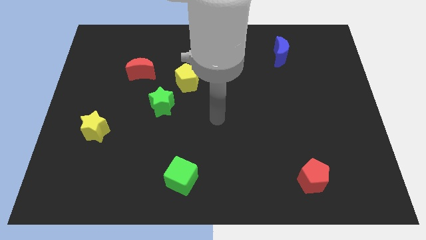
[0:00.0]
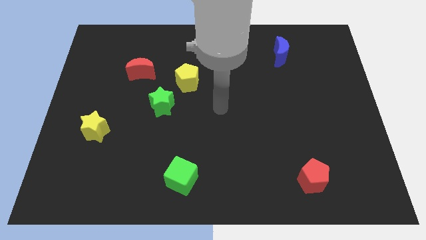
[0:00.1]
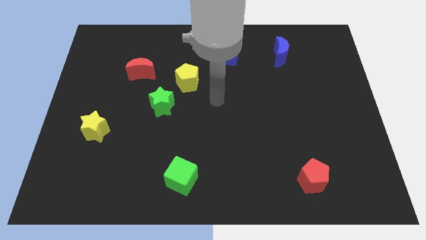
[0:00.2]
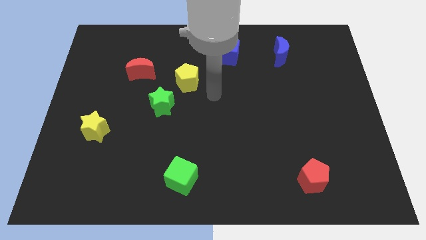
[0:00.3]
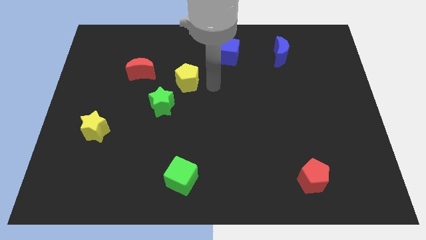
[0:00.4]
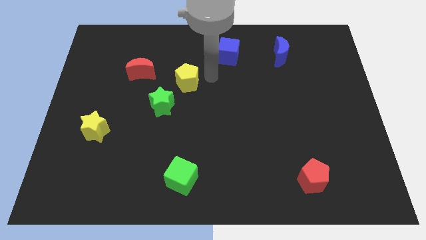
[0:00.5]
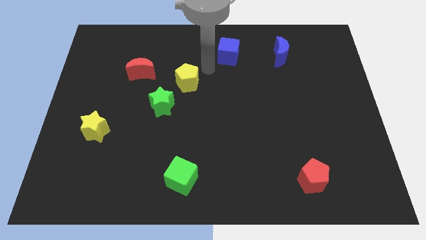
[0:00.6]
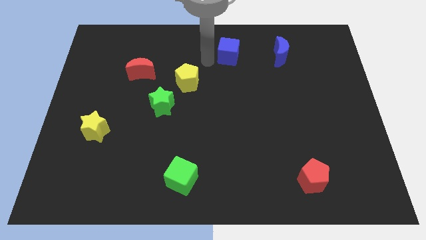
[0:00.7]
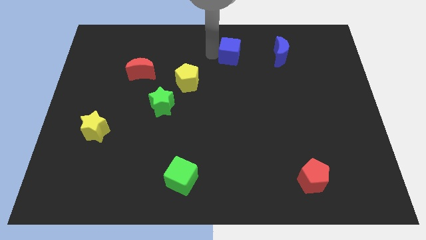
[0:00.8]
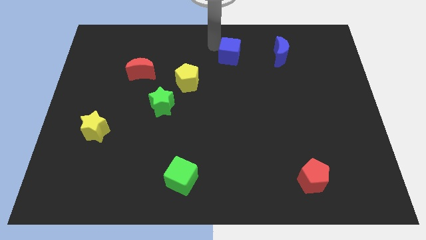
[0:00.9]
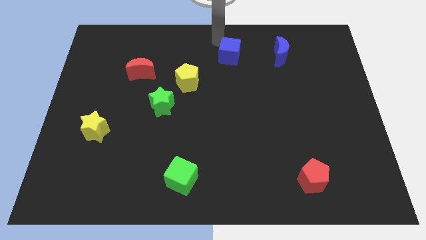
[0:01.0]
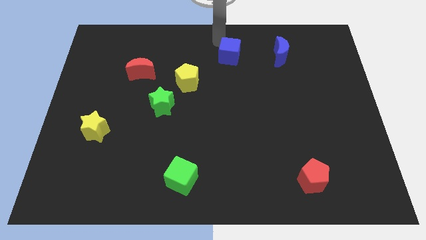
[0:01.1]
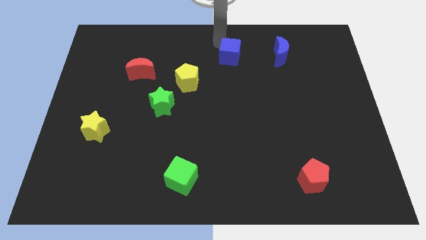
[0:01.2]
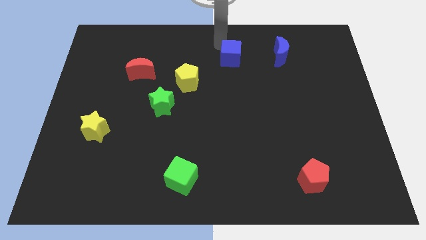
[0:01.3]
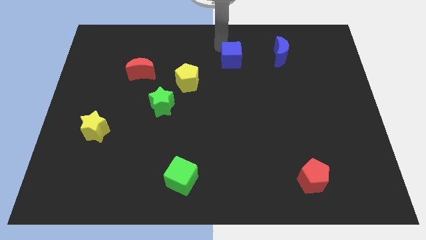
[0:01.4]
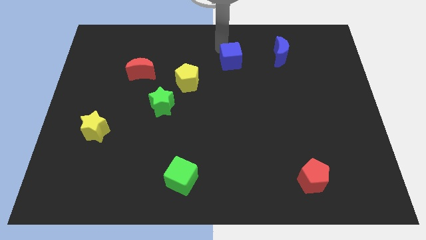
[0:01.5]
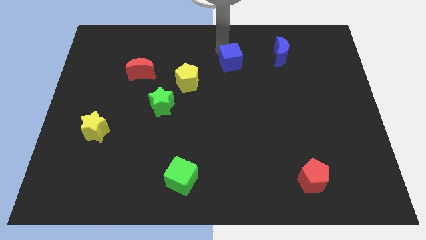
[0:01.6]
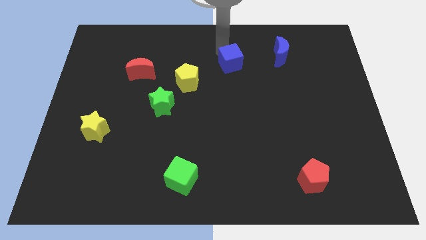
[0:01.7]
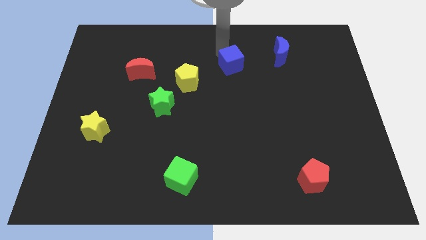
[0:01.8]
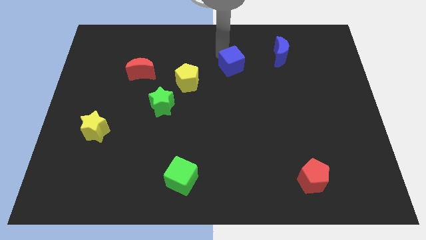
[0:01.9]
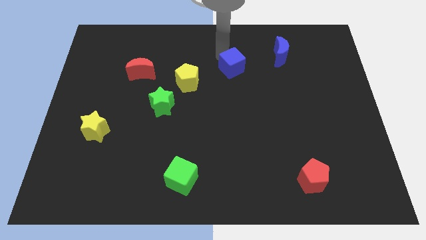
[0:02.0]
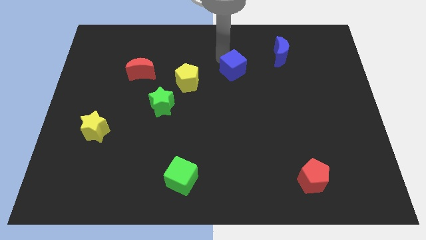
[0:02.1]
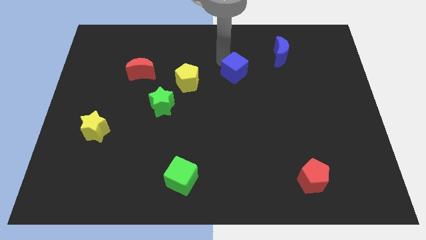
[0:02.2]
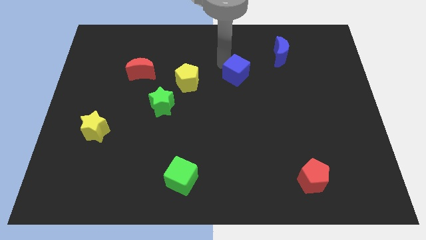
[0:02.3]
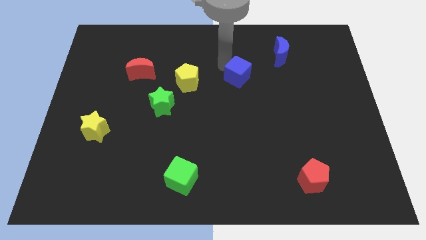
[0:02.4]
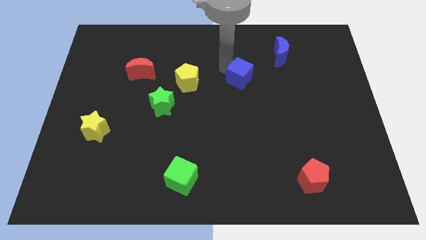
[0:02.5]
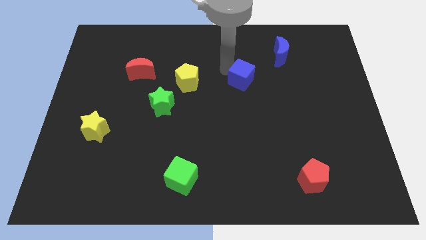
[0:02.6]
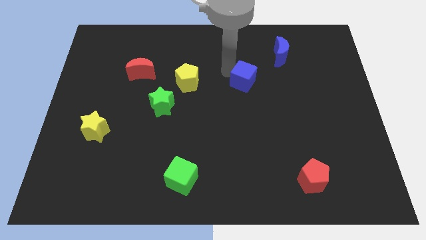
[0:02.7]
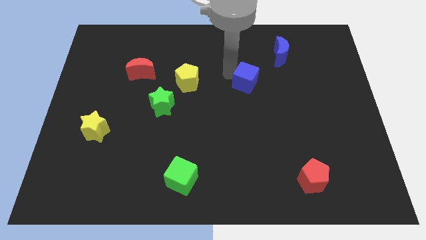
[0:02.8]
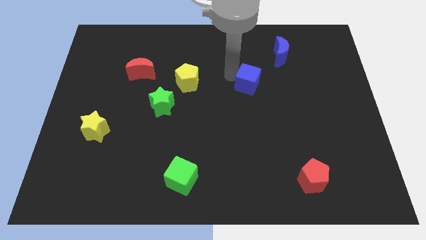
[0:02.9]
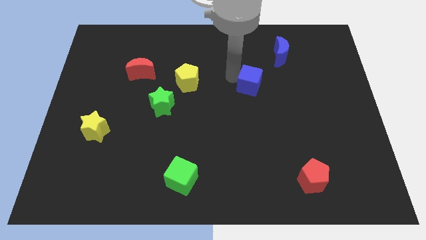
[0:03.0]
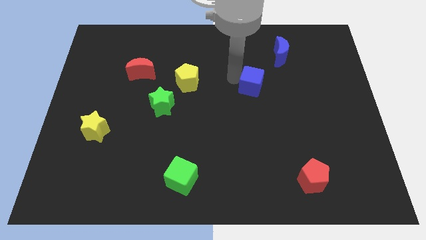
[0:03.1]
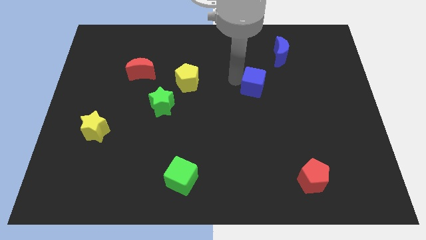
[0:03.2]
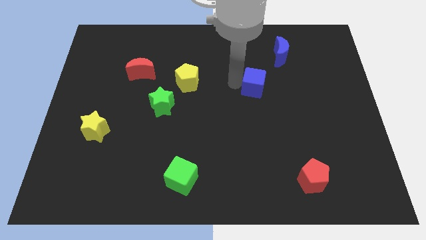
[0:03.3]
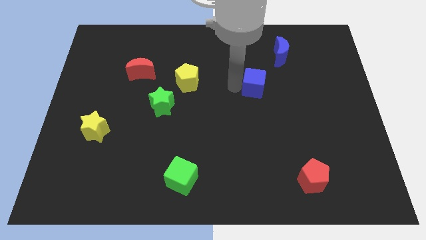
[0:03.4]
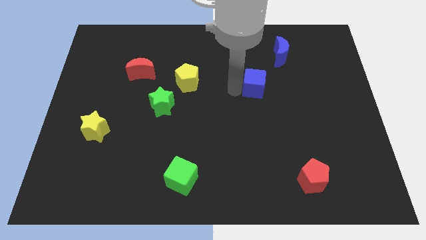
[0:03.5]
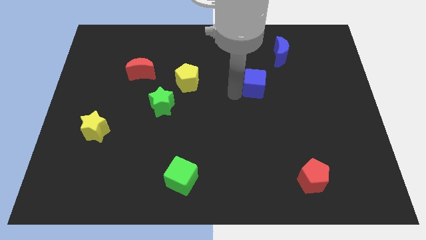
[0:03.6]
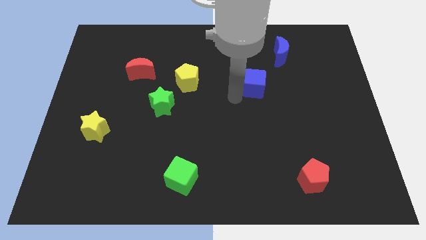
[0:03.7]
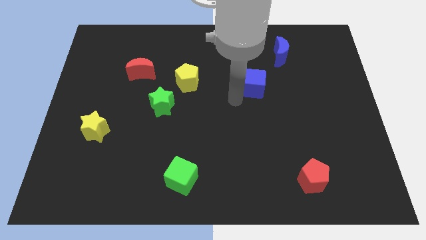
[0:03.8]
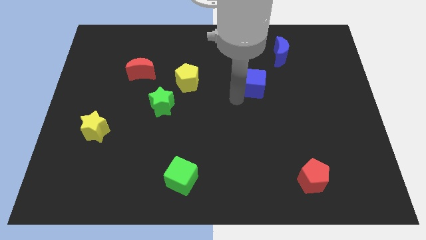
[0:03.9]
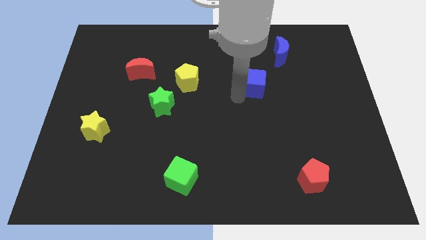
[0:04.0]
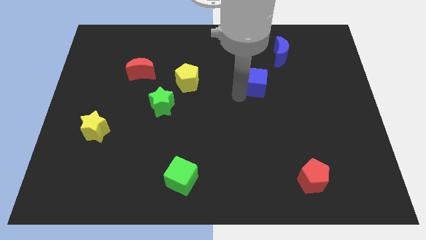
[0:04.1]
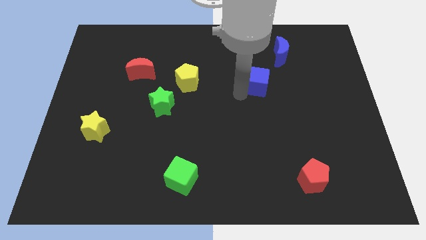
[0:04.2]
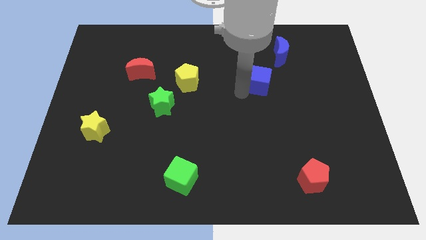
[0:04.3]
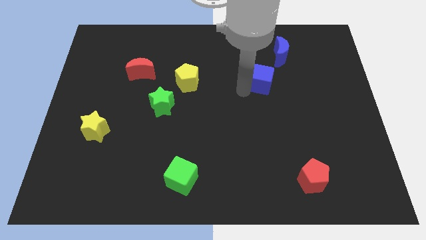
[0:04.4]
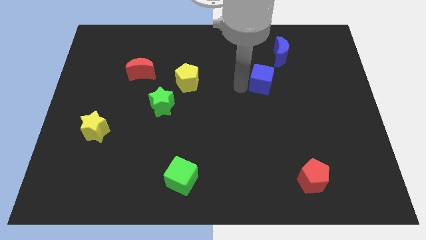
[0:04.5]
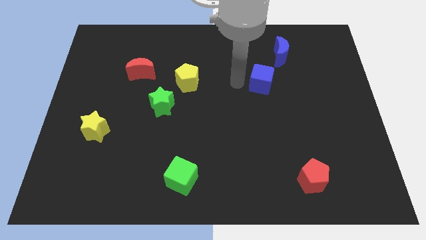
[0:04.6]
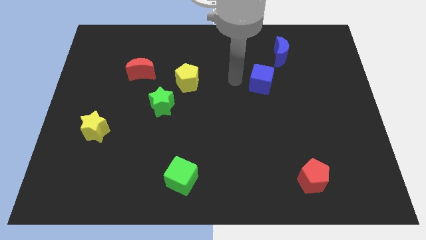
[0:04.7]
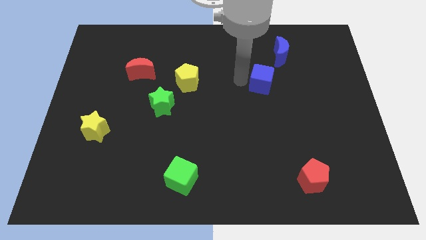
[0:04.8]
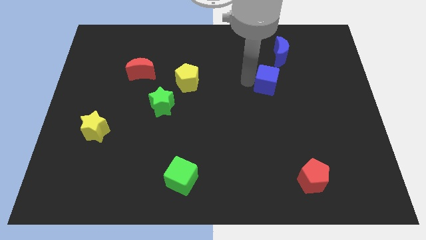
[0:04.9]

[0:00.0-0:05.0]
put the blue cube to the bottom of the blue moon

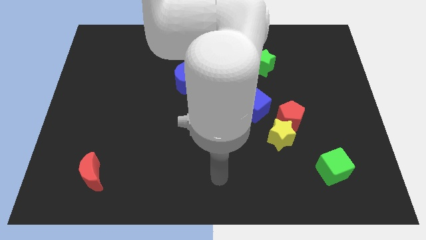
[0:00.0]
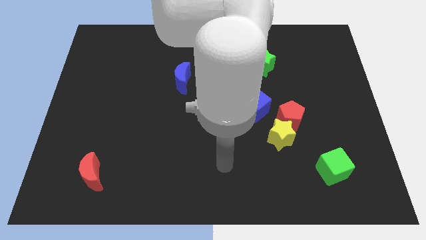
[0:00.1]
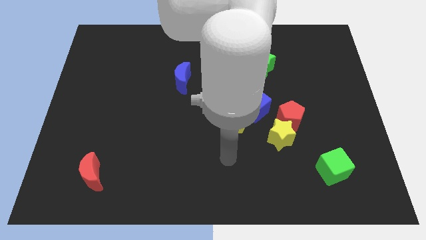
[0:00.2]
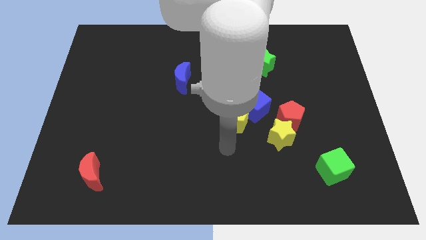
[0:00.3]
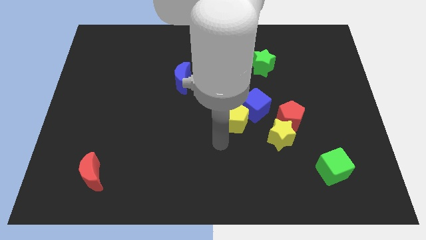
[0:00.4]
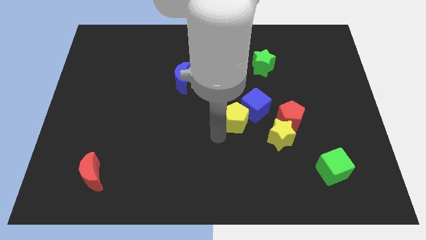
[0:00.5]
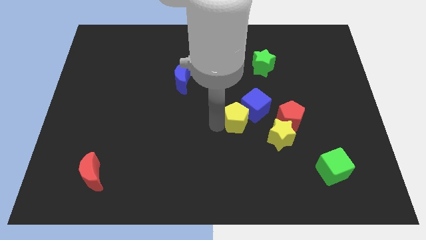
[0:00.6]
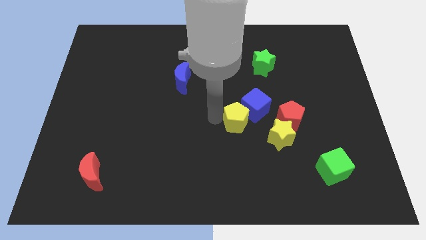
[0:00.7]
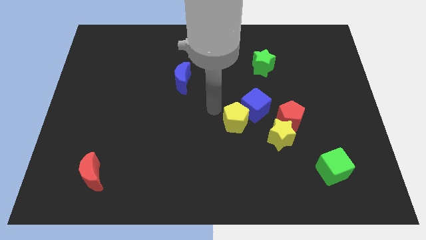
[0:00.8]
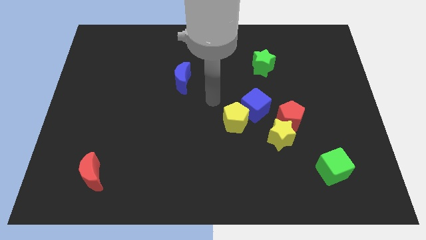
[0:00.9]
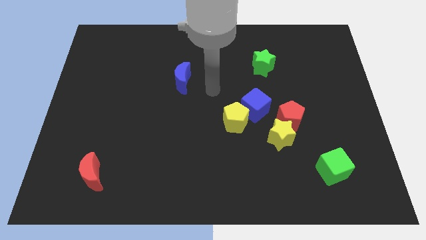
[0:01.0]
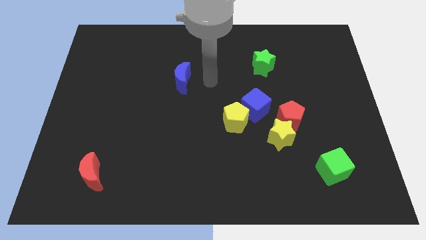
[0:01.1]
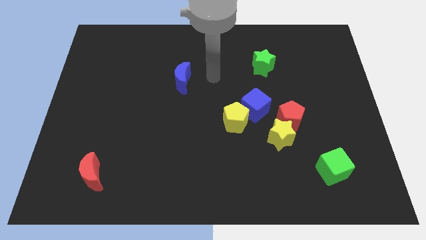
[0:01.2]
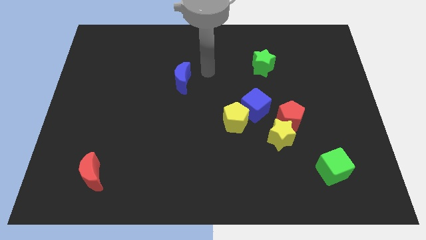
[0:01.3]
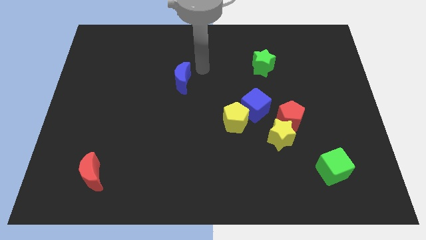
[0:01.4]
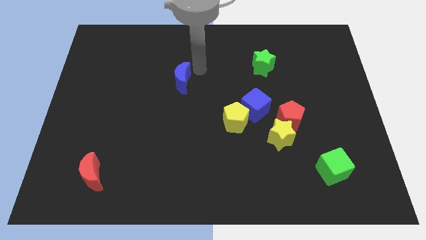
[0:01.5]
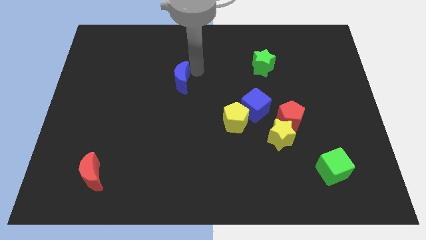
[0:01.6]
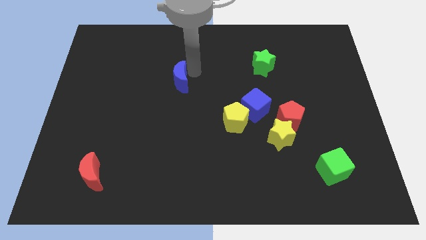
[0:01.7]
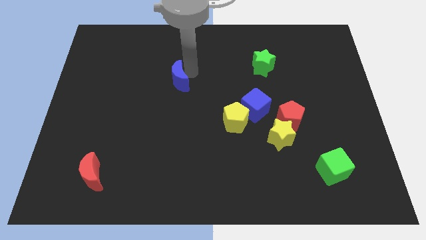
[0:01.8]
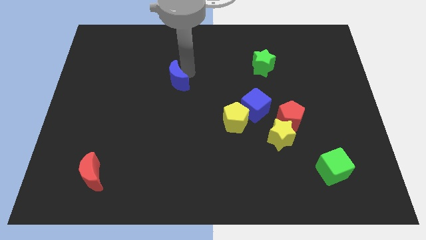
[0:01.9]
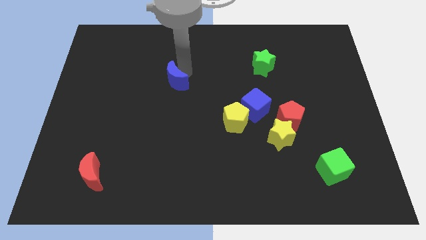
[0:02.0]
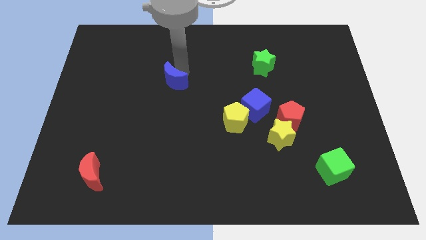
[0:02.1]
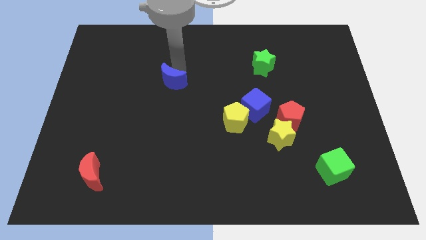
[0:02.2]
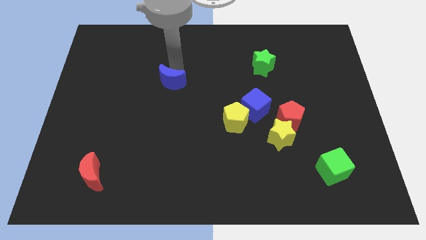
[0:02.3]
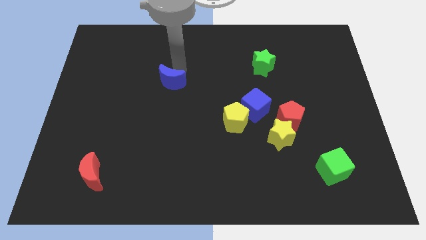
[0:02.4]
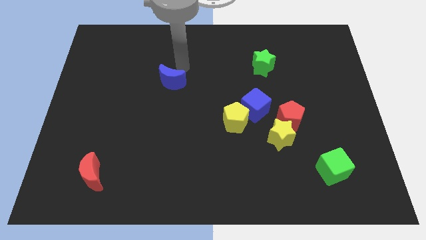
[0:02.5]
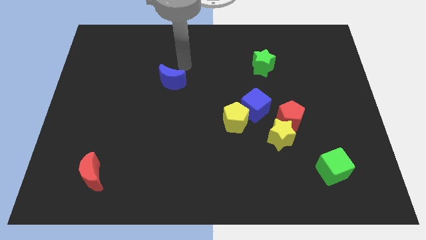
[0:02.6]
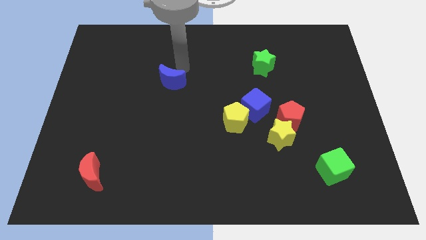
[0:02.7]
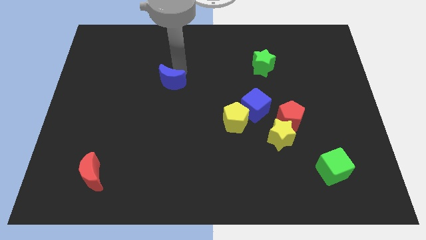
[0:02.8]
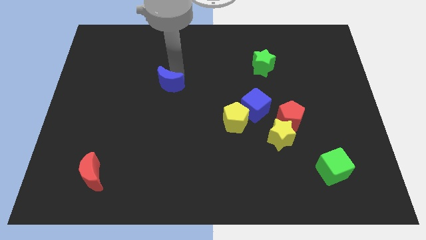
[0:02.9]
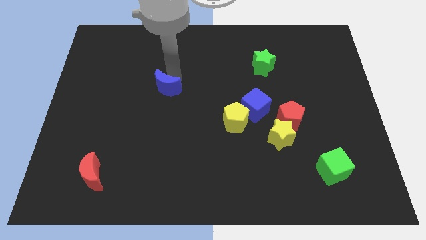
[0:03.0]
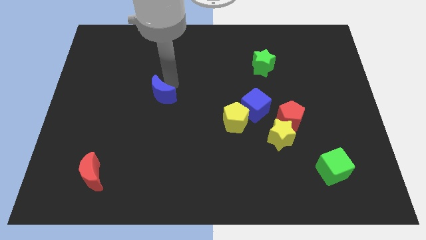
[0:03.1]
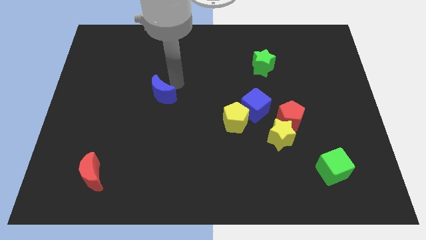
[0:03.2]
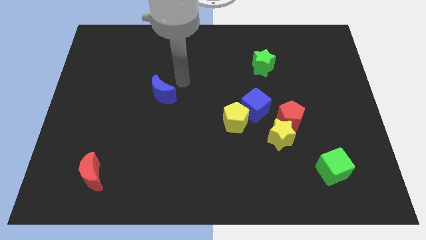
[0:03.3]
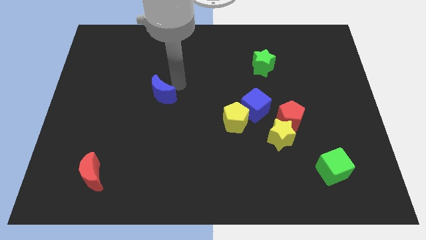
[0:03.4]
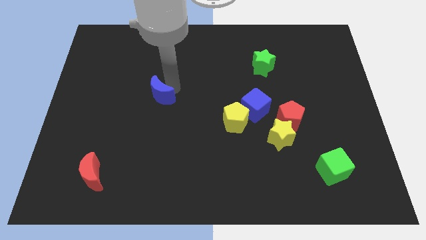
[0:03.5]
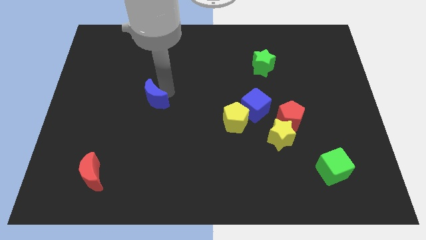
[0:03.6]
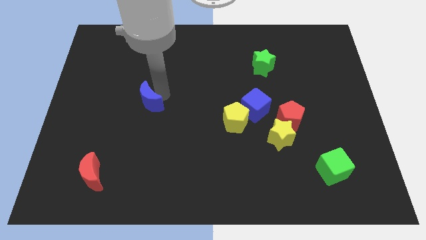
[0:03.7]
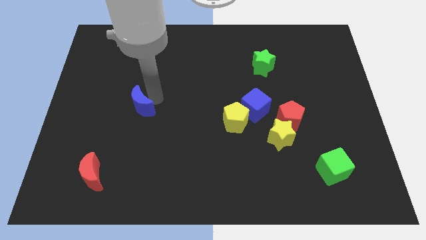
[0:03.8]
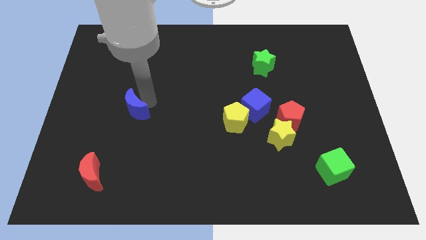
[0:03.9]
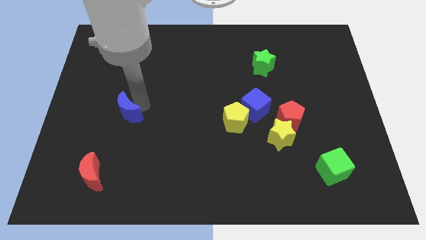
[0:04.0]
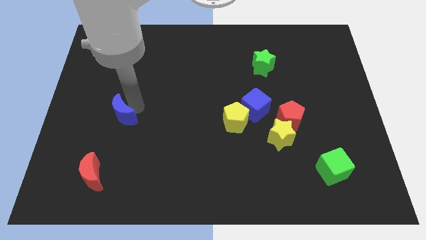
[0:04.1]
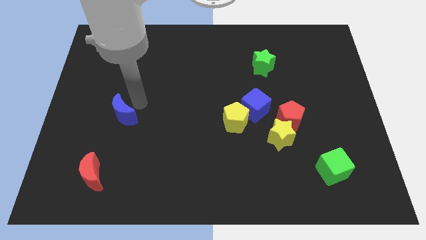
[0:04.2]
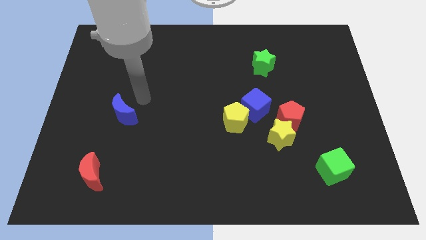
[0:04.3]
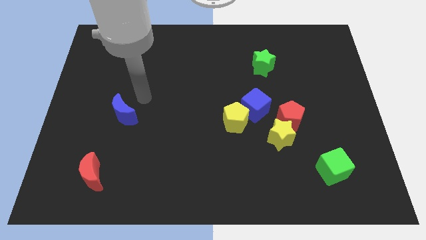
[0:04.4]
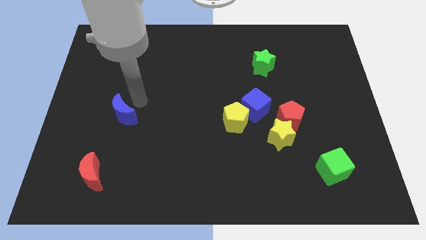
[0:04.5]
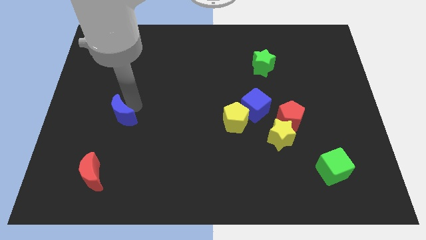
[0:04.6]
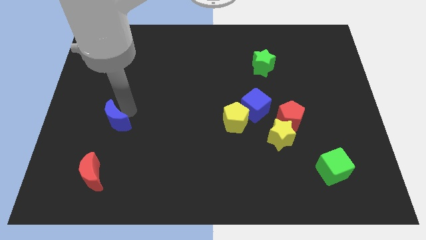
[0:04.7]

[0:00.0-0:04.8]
move the blue moon to the top of the red moon
